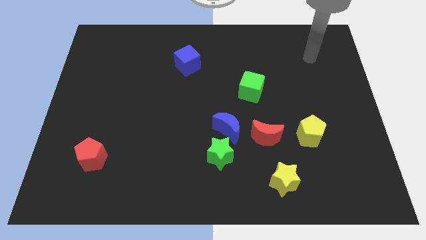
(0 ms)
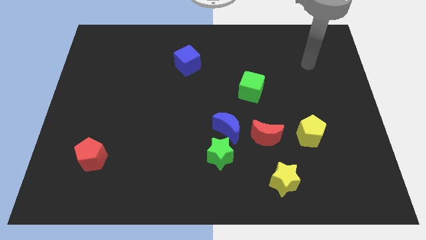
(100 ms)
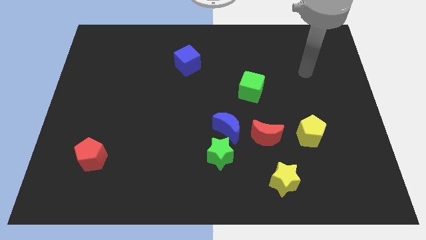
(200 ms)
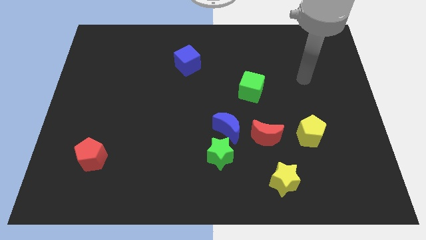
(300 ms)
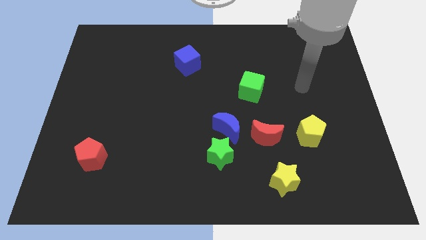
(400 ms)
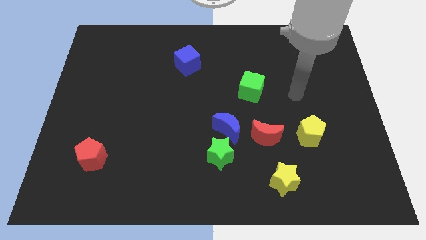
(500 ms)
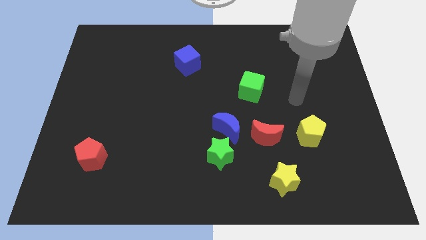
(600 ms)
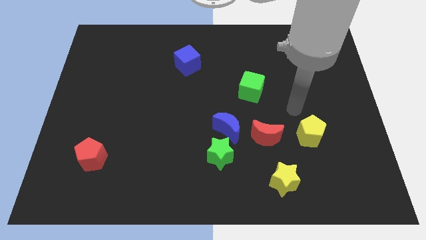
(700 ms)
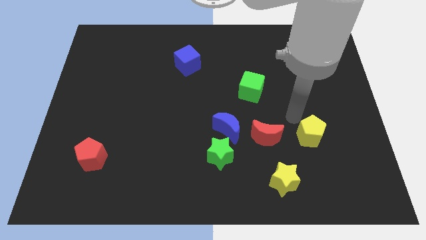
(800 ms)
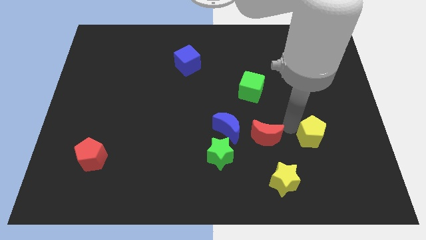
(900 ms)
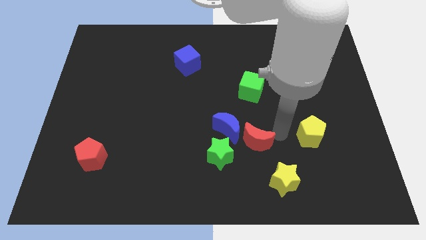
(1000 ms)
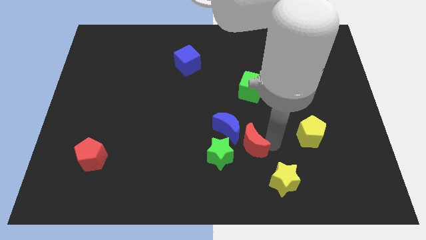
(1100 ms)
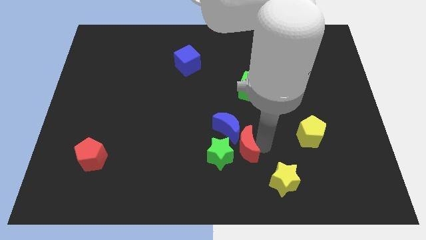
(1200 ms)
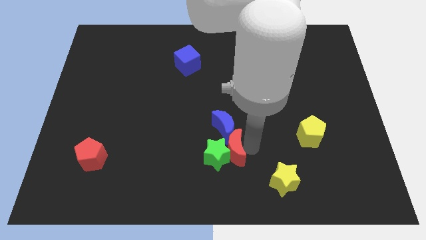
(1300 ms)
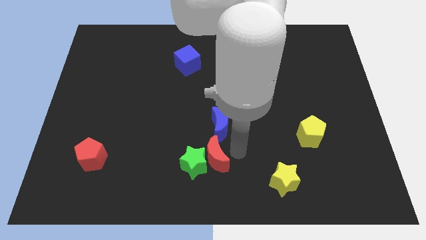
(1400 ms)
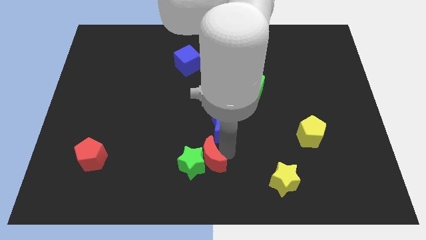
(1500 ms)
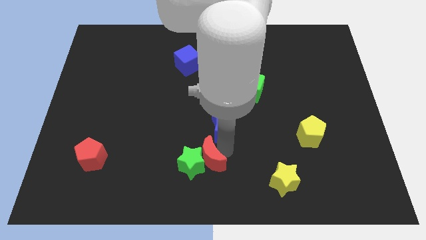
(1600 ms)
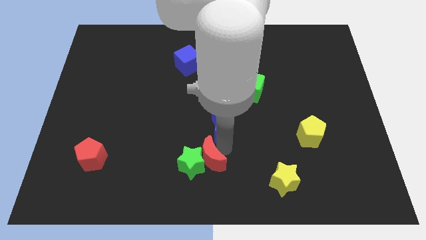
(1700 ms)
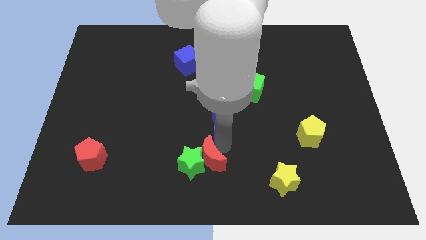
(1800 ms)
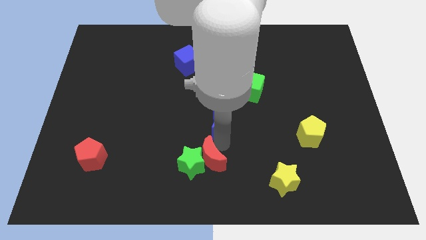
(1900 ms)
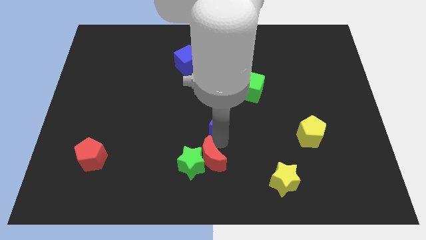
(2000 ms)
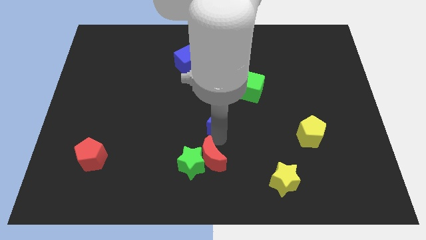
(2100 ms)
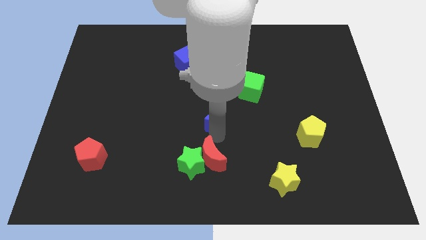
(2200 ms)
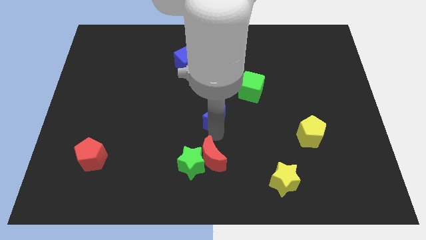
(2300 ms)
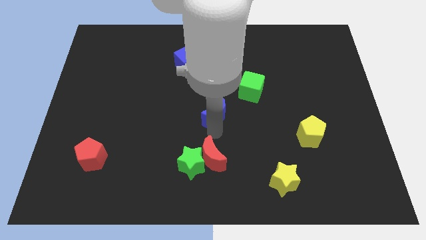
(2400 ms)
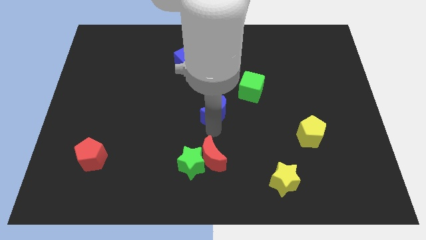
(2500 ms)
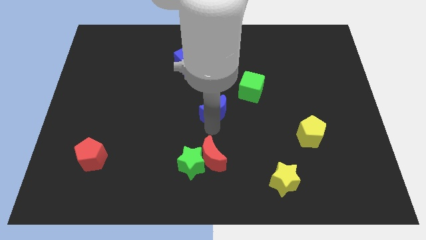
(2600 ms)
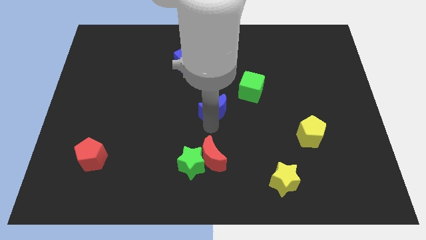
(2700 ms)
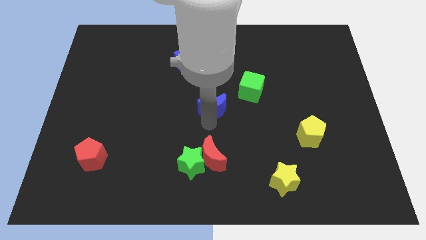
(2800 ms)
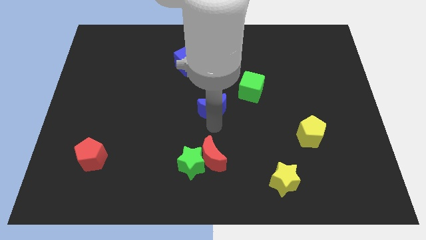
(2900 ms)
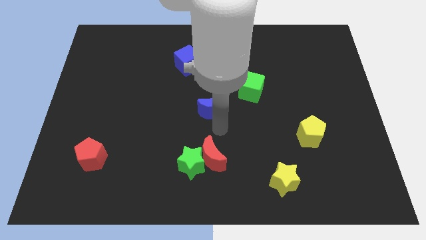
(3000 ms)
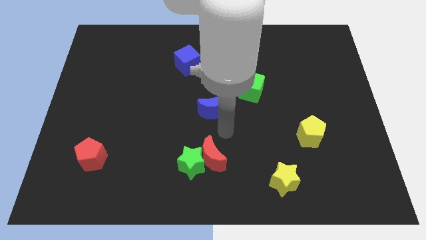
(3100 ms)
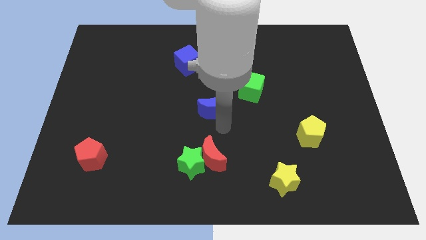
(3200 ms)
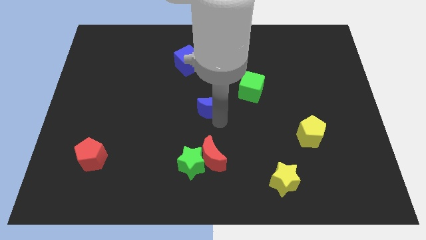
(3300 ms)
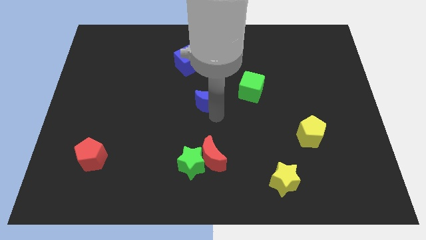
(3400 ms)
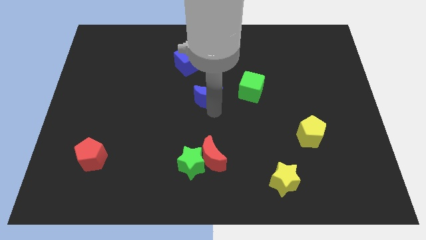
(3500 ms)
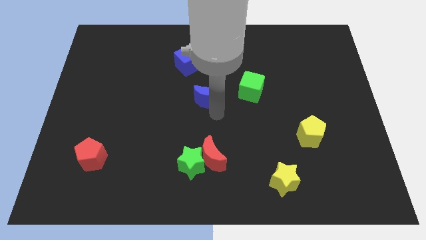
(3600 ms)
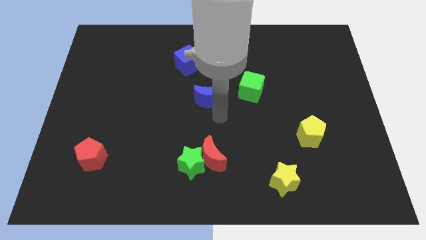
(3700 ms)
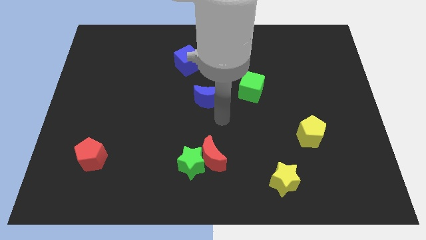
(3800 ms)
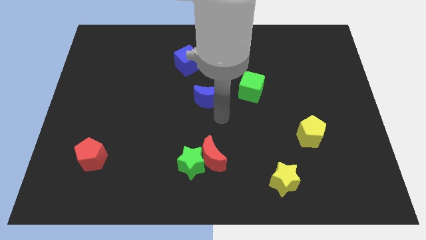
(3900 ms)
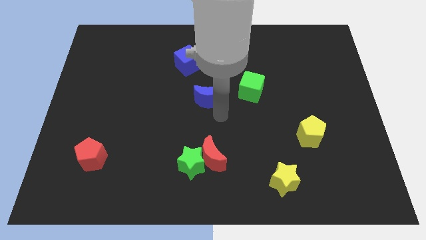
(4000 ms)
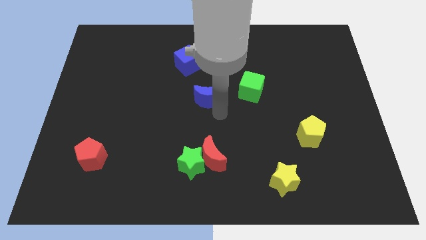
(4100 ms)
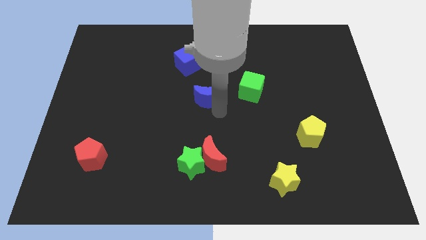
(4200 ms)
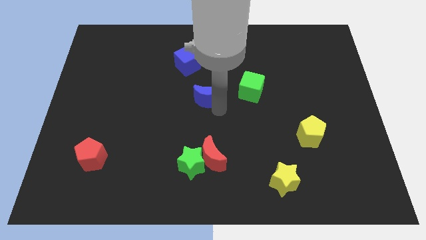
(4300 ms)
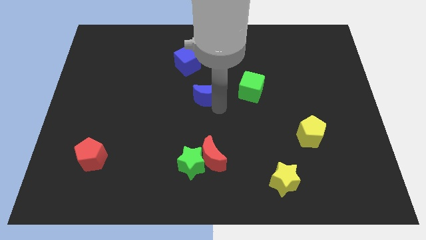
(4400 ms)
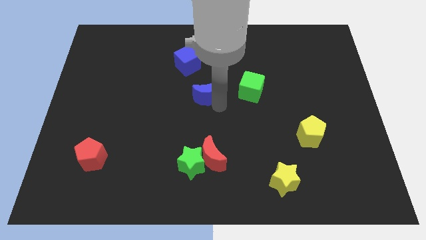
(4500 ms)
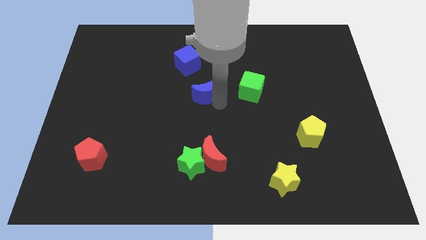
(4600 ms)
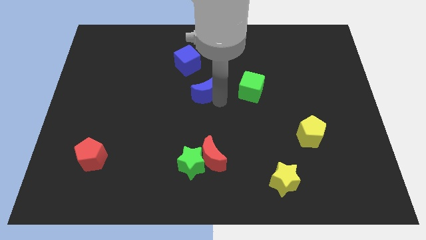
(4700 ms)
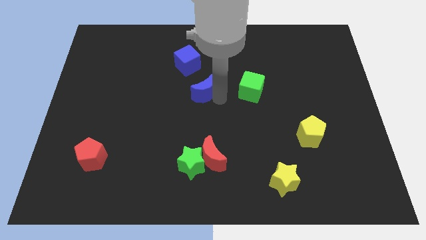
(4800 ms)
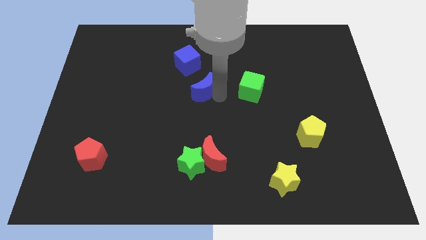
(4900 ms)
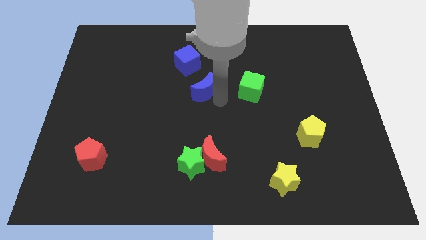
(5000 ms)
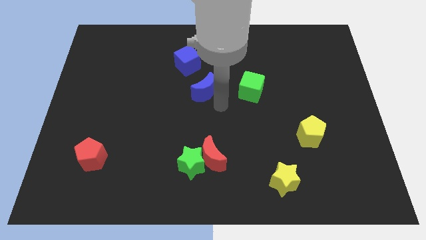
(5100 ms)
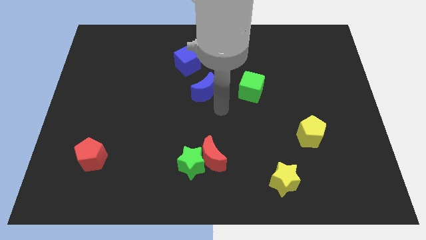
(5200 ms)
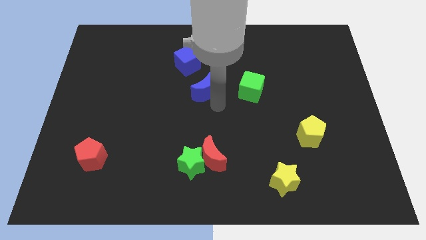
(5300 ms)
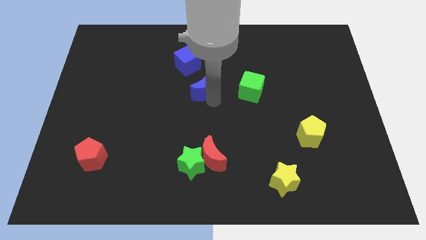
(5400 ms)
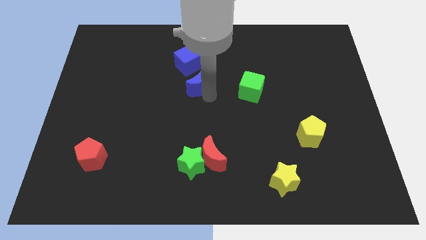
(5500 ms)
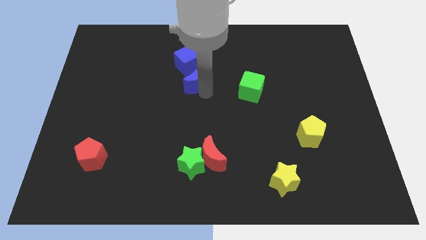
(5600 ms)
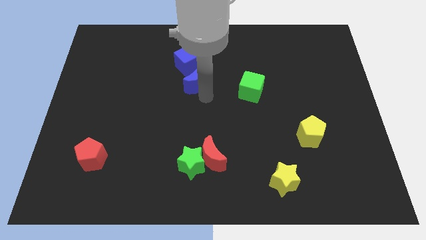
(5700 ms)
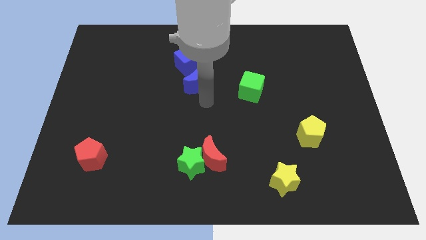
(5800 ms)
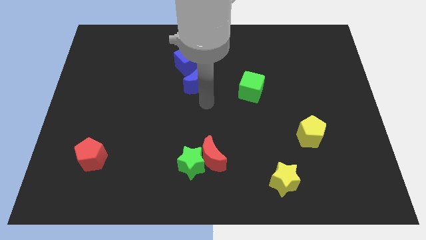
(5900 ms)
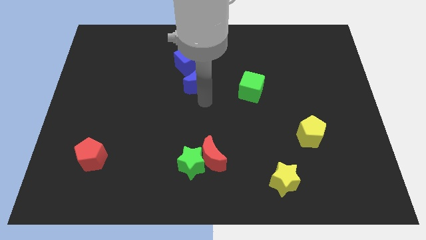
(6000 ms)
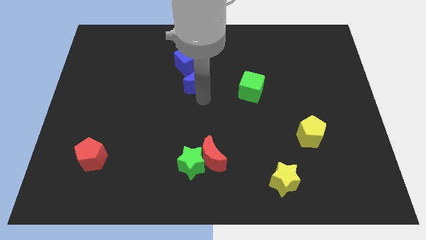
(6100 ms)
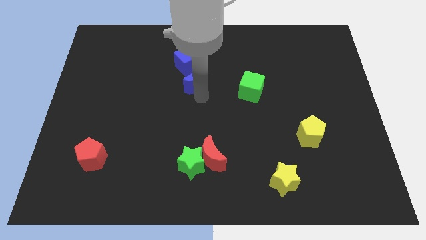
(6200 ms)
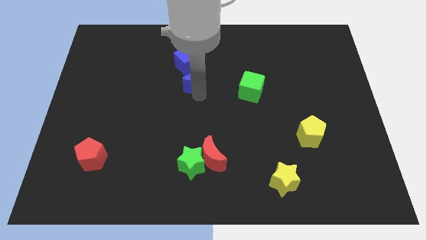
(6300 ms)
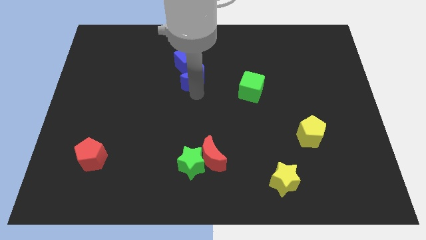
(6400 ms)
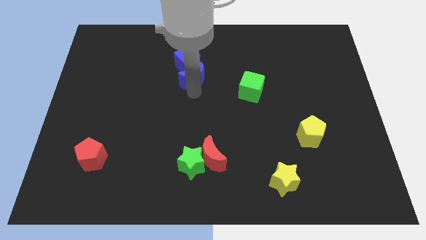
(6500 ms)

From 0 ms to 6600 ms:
slide the blue moon close to the blue cube
